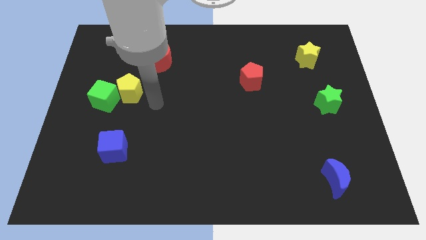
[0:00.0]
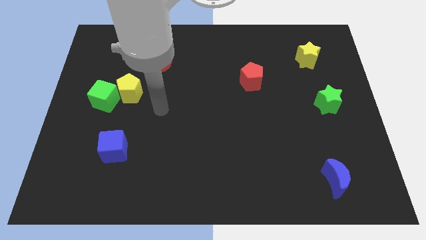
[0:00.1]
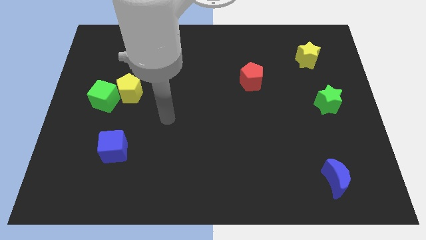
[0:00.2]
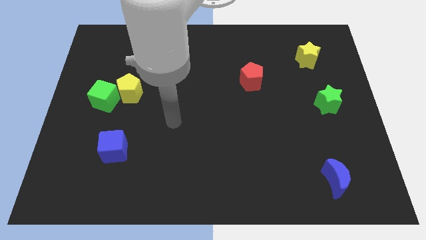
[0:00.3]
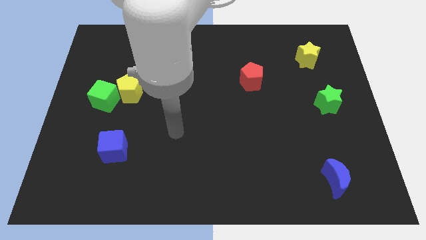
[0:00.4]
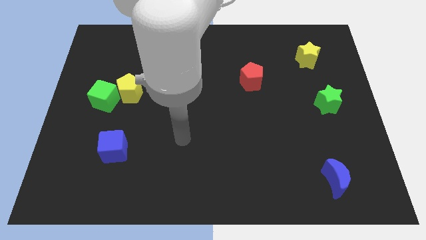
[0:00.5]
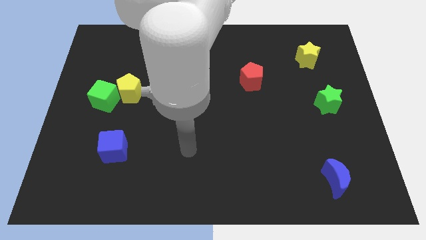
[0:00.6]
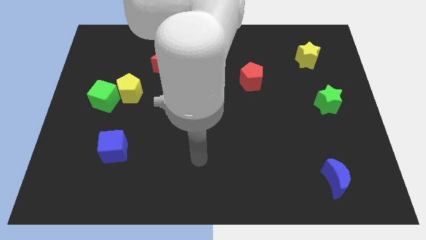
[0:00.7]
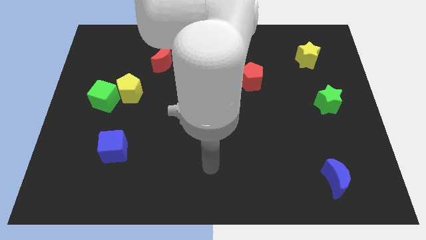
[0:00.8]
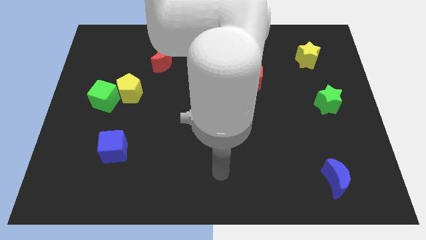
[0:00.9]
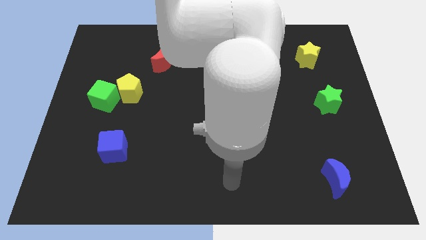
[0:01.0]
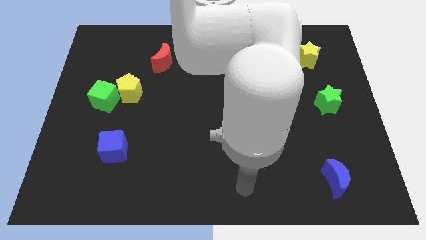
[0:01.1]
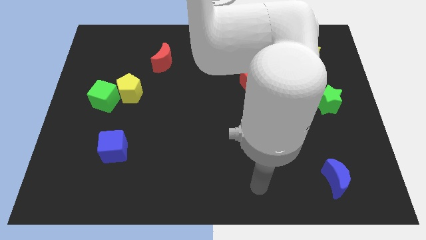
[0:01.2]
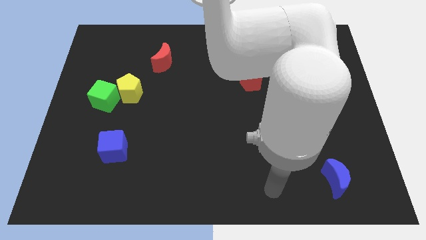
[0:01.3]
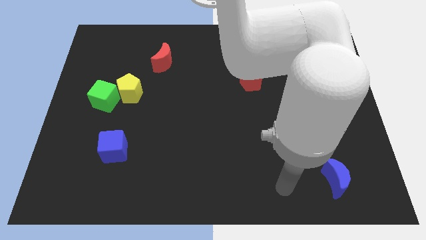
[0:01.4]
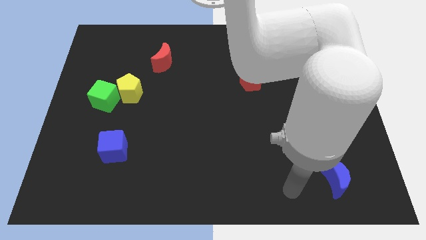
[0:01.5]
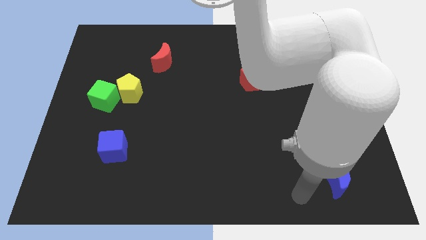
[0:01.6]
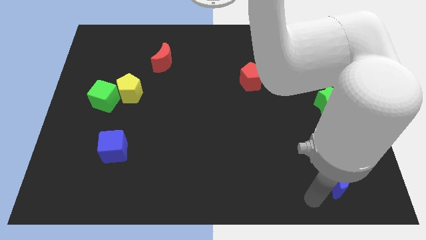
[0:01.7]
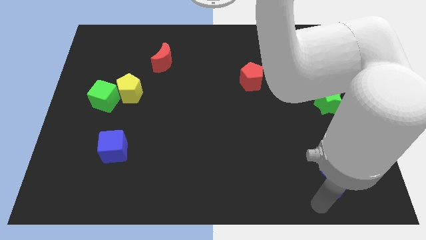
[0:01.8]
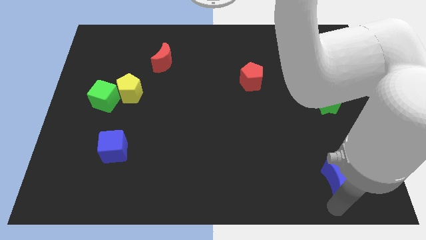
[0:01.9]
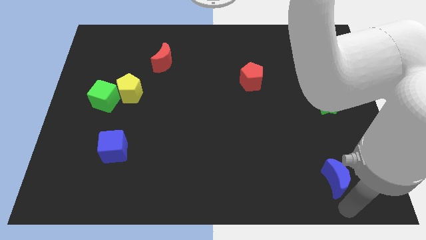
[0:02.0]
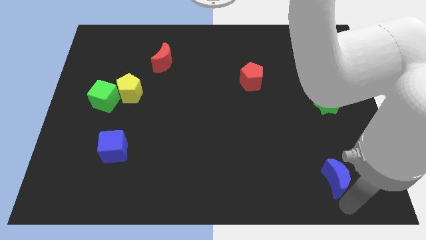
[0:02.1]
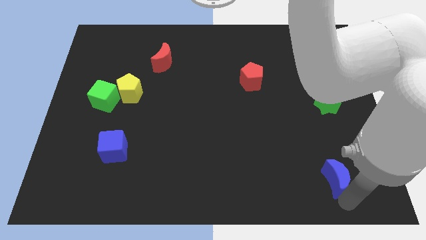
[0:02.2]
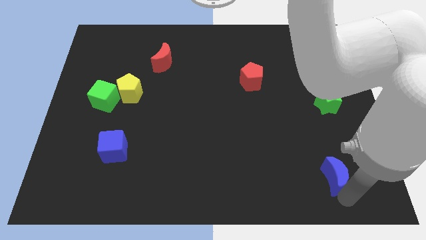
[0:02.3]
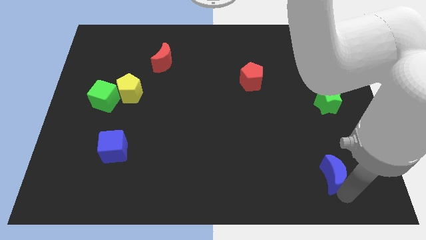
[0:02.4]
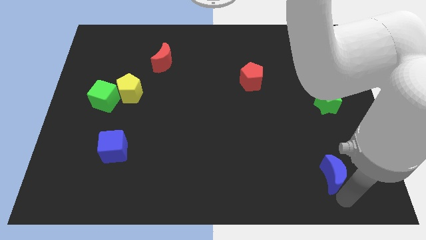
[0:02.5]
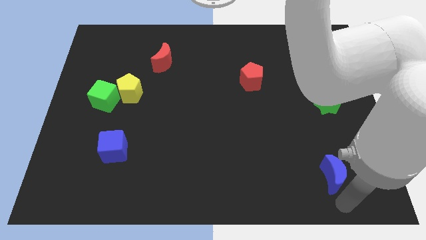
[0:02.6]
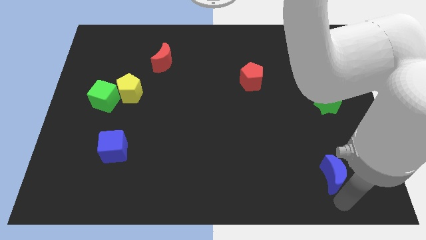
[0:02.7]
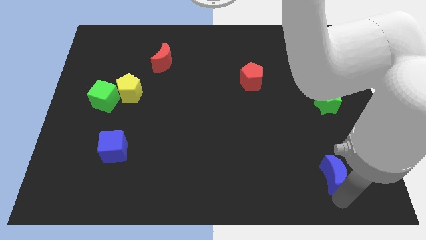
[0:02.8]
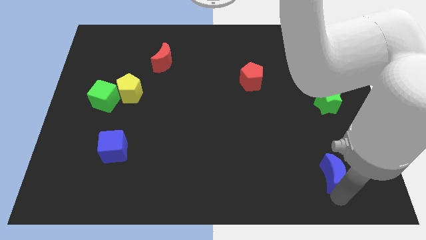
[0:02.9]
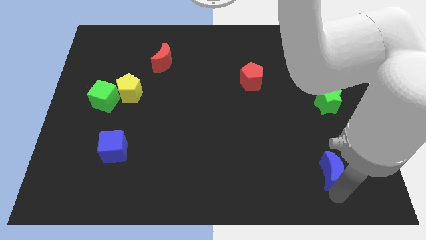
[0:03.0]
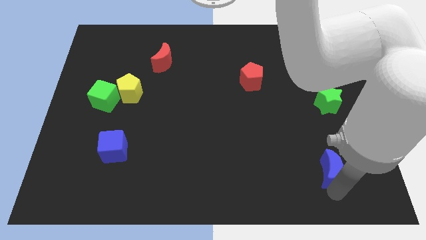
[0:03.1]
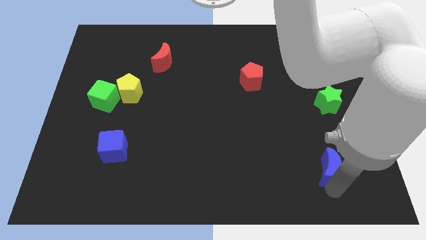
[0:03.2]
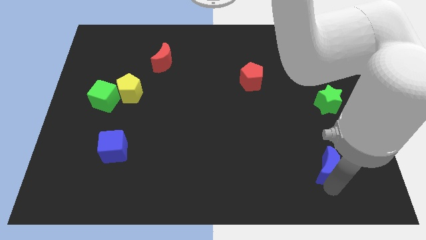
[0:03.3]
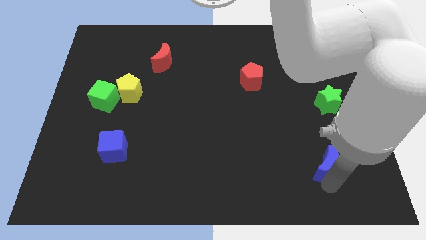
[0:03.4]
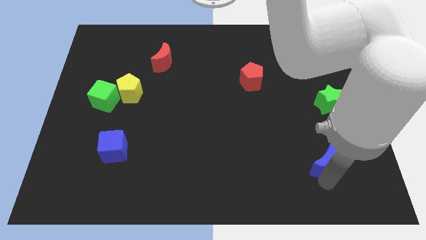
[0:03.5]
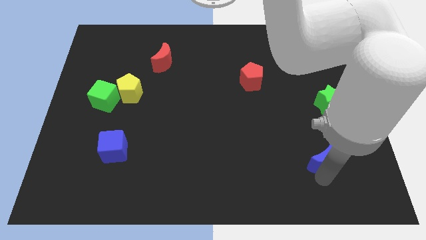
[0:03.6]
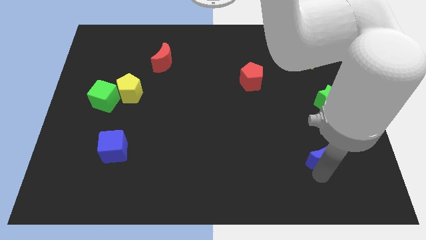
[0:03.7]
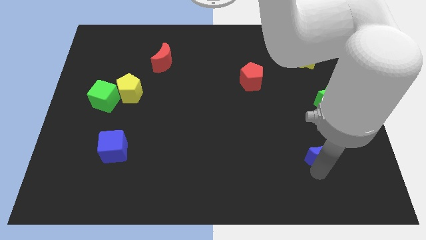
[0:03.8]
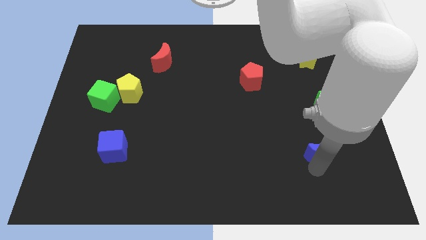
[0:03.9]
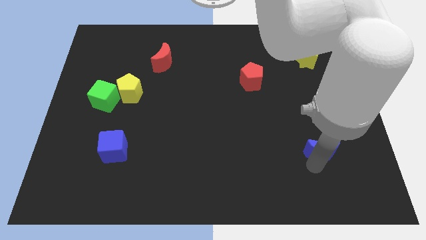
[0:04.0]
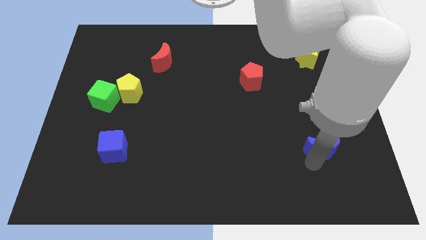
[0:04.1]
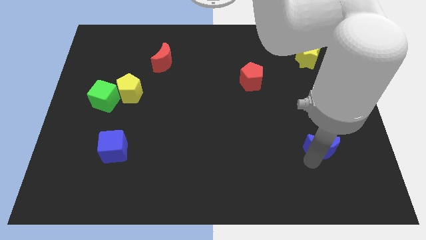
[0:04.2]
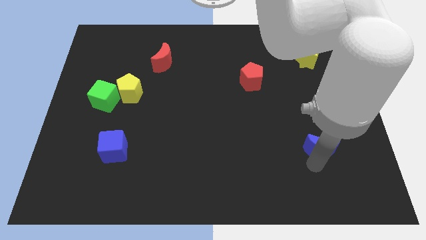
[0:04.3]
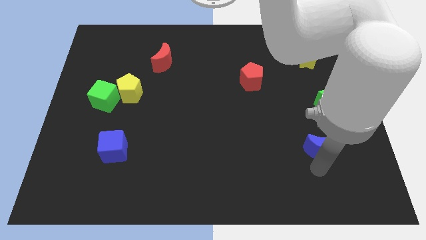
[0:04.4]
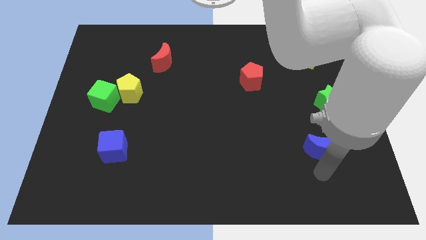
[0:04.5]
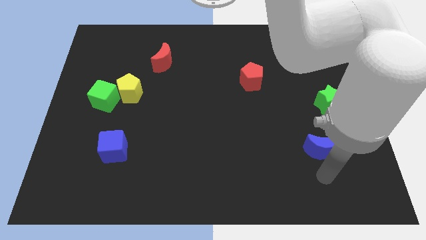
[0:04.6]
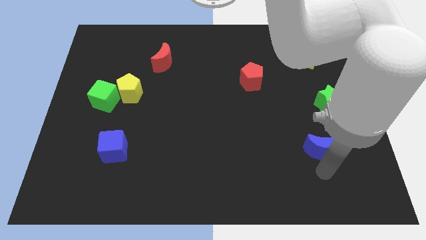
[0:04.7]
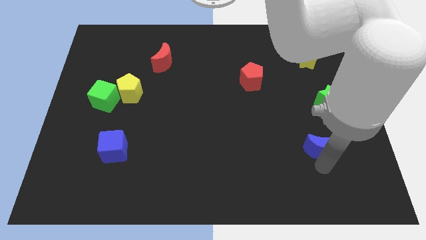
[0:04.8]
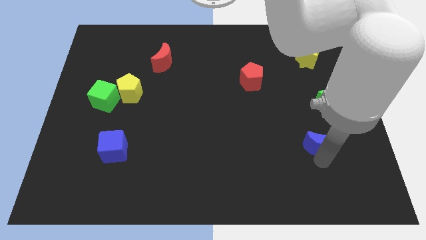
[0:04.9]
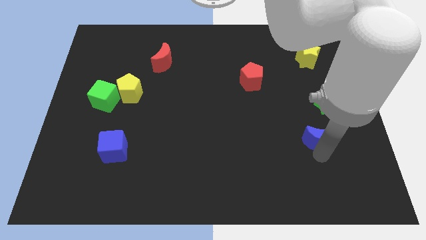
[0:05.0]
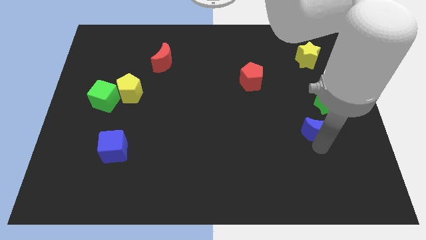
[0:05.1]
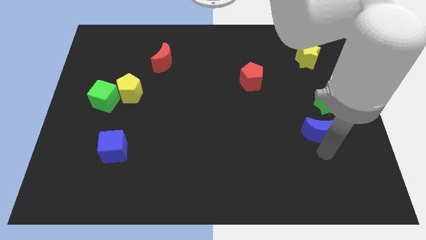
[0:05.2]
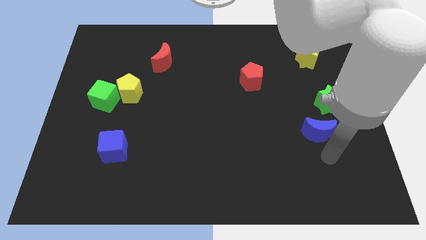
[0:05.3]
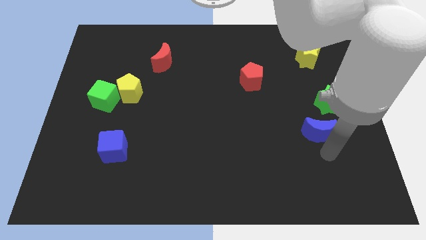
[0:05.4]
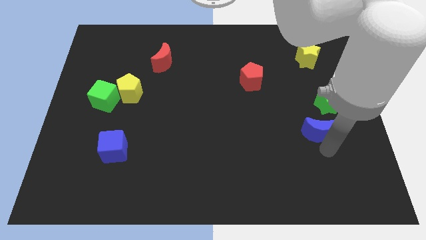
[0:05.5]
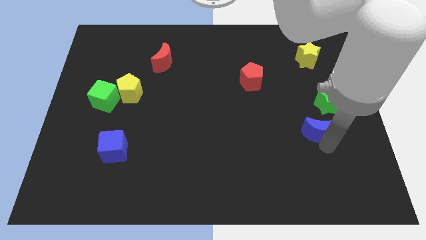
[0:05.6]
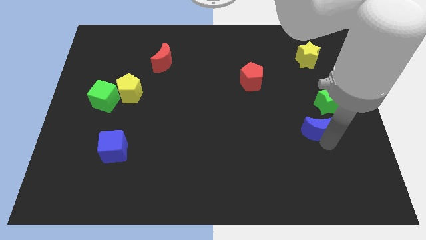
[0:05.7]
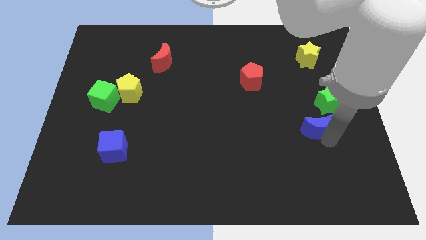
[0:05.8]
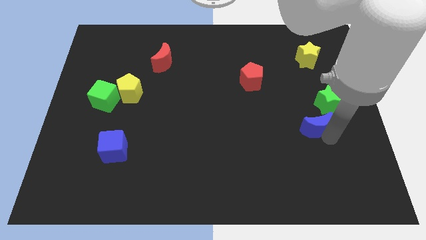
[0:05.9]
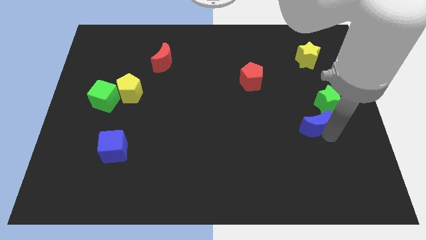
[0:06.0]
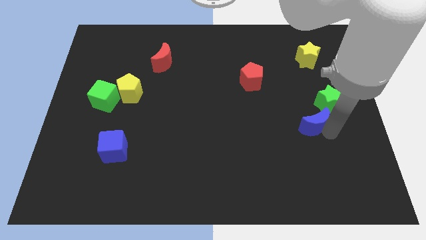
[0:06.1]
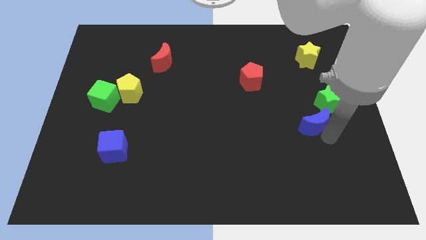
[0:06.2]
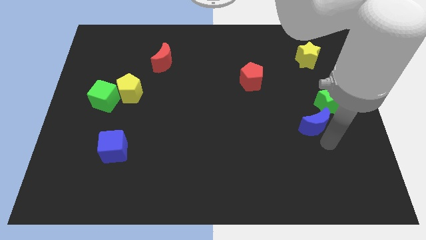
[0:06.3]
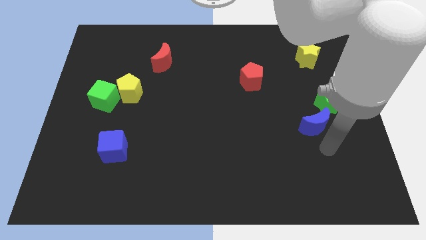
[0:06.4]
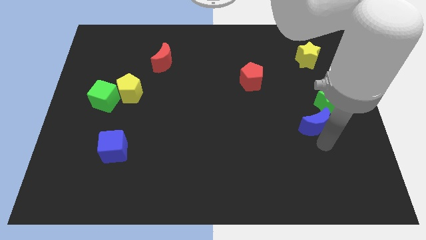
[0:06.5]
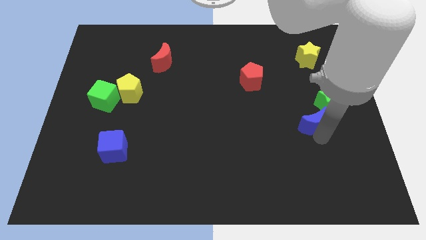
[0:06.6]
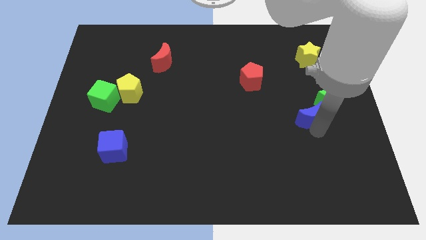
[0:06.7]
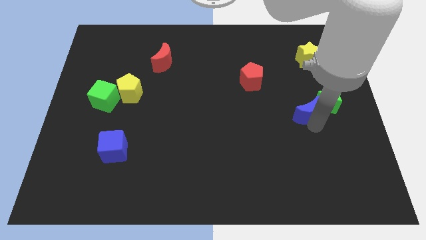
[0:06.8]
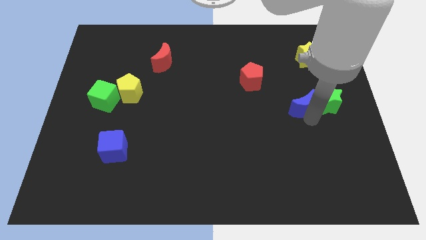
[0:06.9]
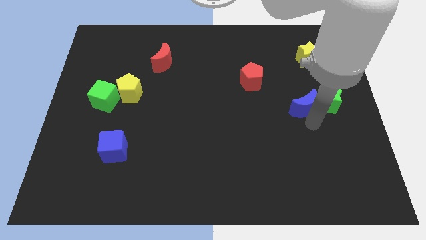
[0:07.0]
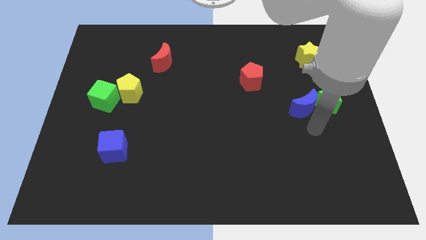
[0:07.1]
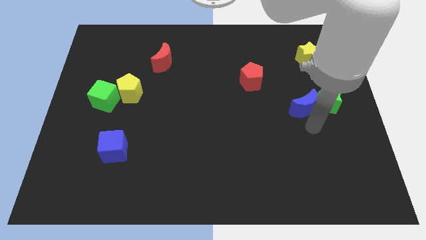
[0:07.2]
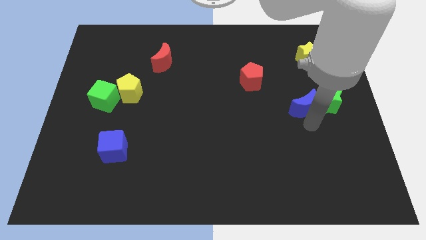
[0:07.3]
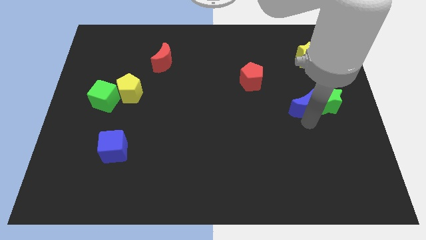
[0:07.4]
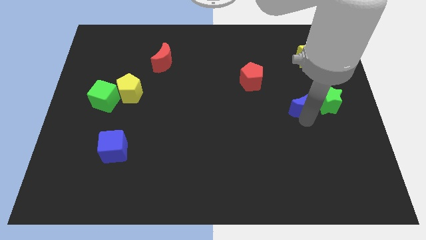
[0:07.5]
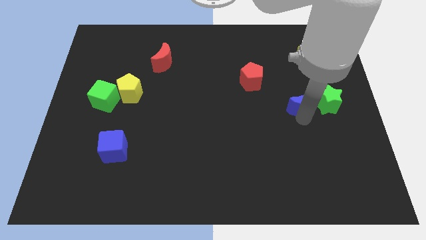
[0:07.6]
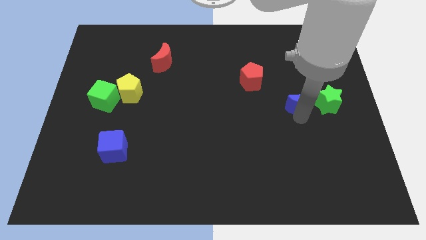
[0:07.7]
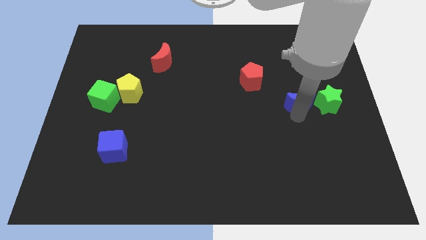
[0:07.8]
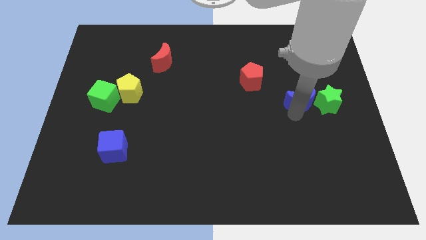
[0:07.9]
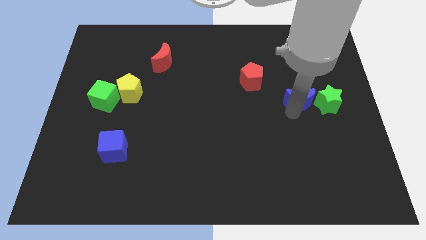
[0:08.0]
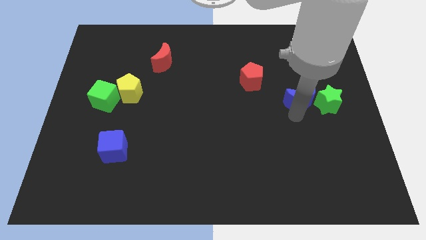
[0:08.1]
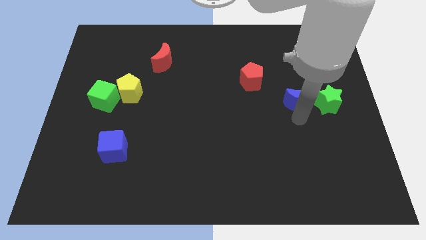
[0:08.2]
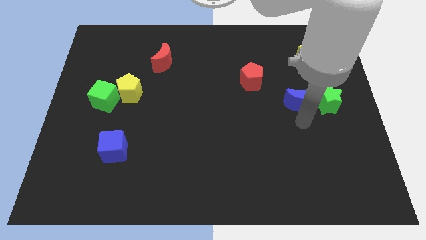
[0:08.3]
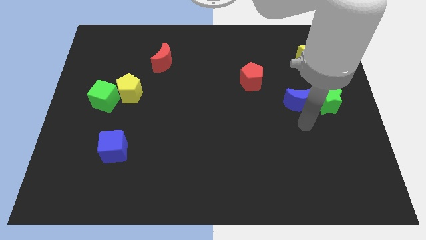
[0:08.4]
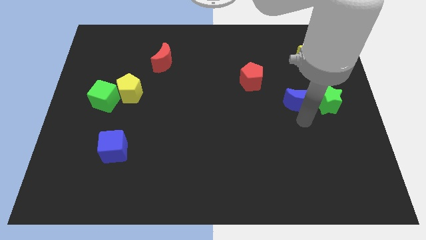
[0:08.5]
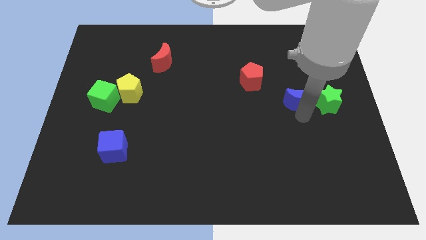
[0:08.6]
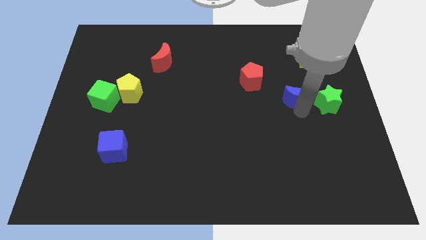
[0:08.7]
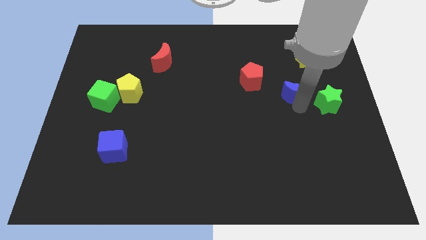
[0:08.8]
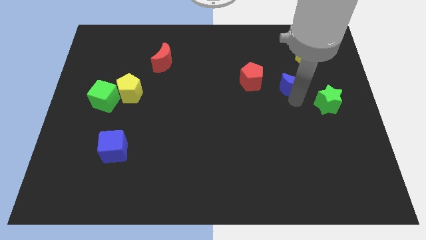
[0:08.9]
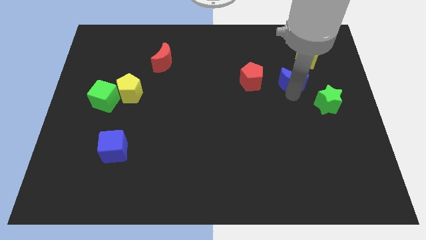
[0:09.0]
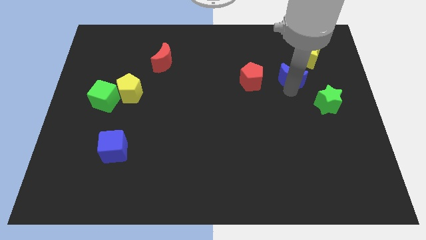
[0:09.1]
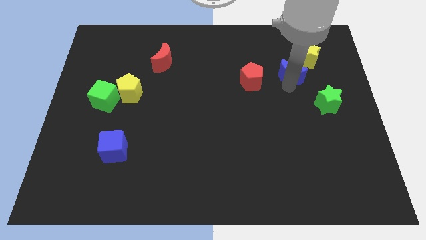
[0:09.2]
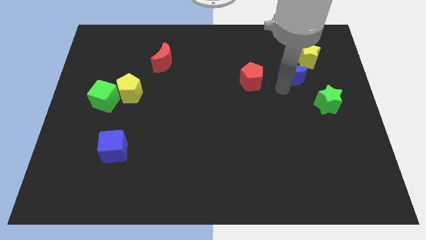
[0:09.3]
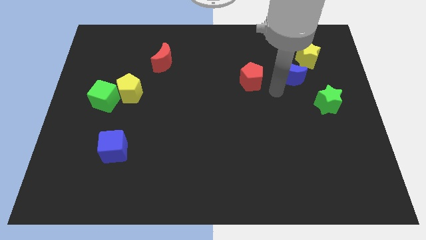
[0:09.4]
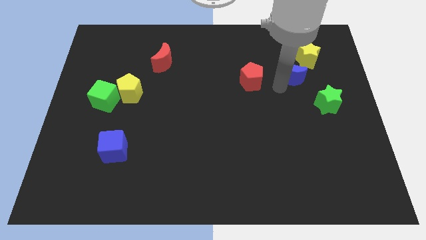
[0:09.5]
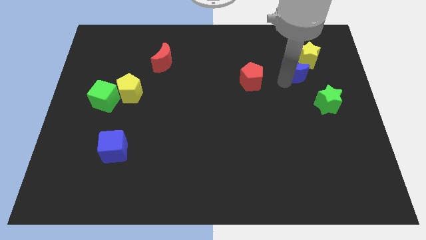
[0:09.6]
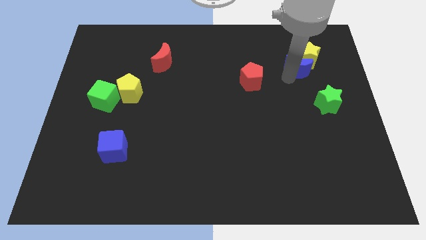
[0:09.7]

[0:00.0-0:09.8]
slide the blue moon next to the yellow star
